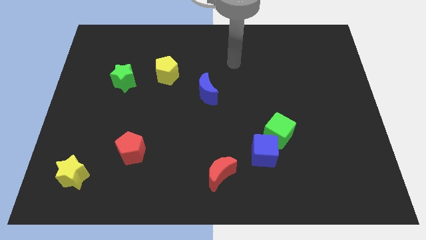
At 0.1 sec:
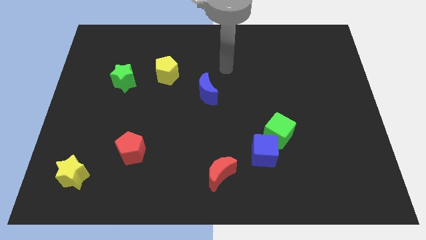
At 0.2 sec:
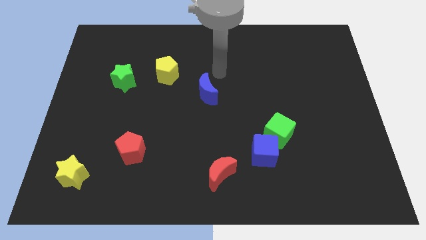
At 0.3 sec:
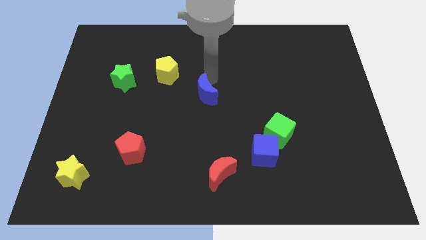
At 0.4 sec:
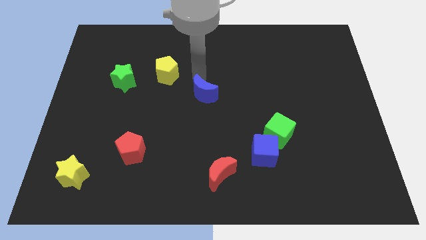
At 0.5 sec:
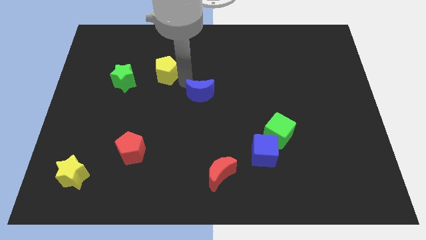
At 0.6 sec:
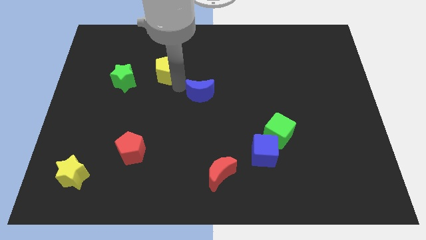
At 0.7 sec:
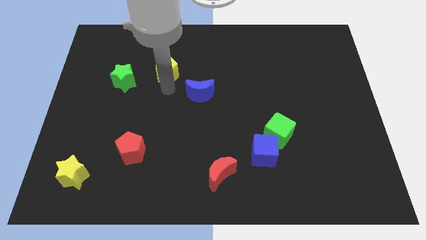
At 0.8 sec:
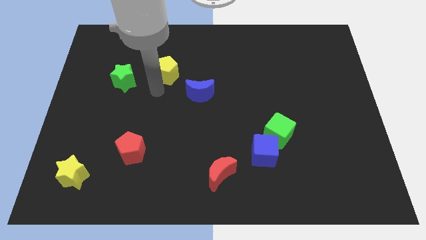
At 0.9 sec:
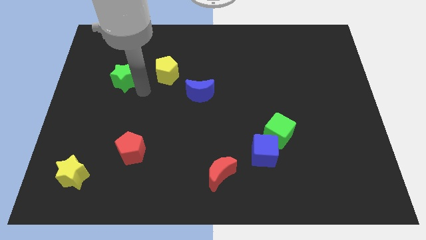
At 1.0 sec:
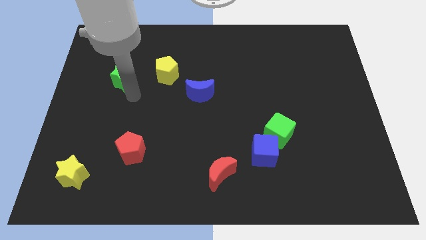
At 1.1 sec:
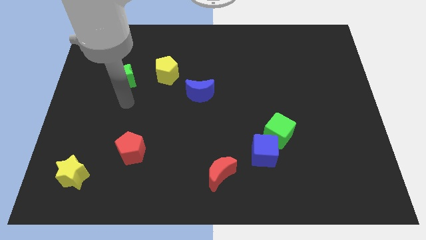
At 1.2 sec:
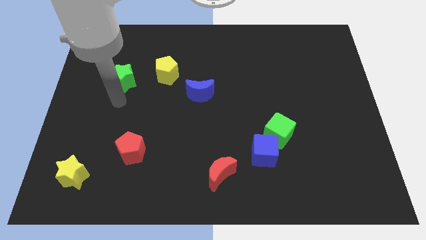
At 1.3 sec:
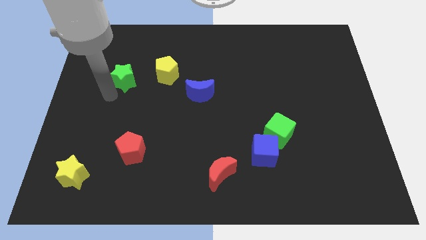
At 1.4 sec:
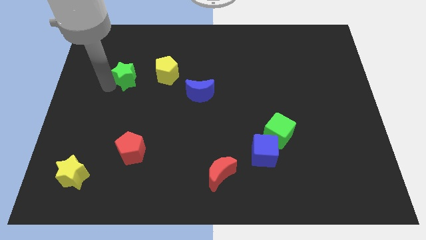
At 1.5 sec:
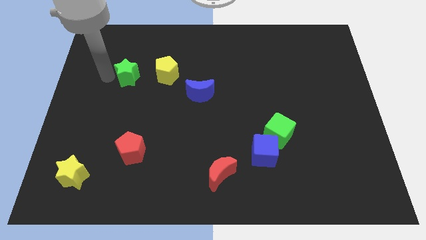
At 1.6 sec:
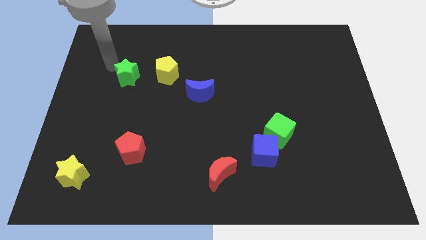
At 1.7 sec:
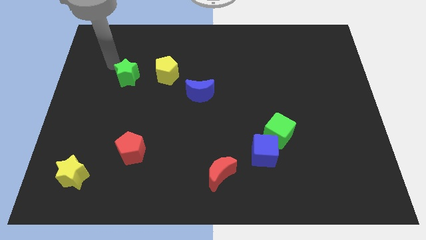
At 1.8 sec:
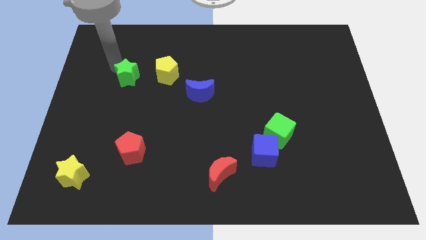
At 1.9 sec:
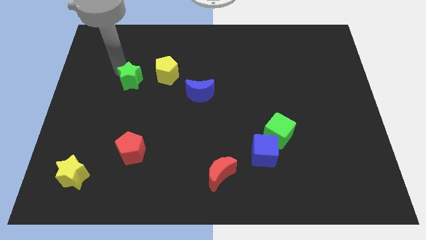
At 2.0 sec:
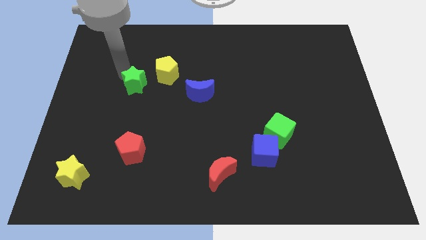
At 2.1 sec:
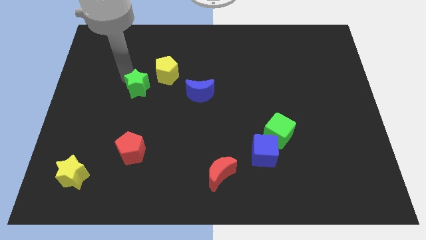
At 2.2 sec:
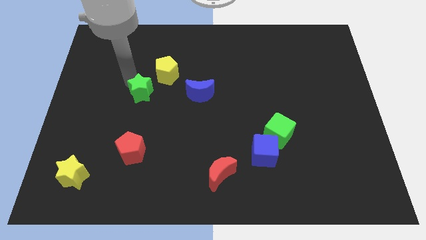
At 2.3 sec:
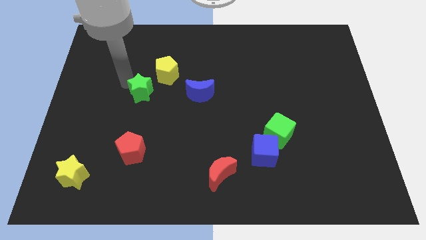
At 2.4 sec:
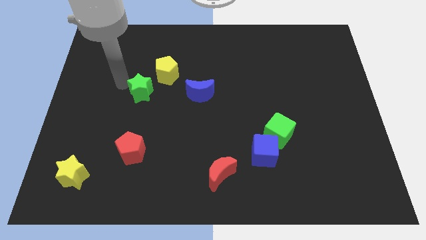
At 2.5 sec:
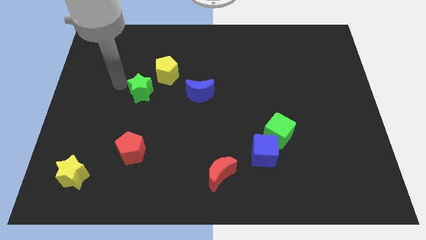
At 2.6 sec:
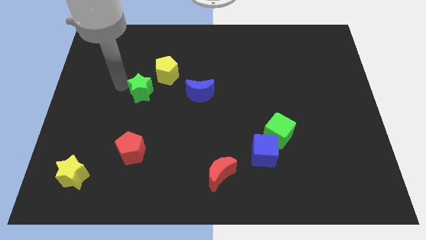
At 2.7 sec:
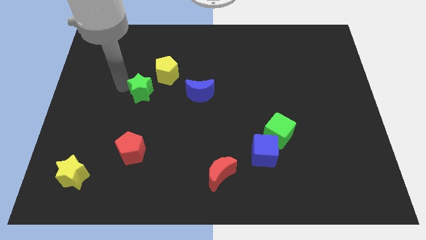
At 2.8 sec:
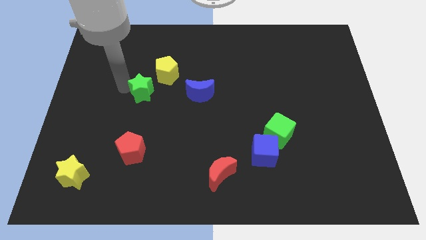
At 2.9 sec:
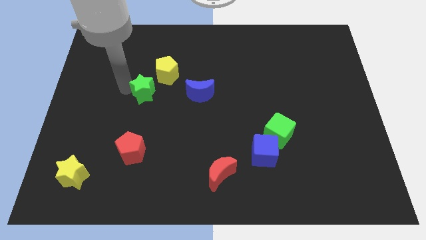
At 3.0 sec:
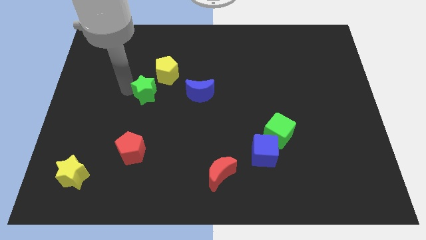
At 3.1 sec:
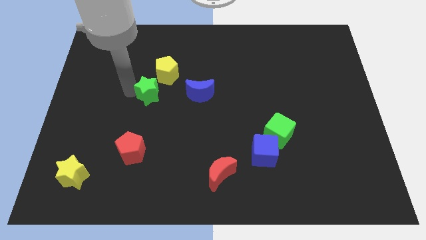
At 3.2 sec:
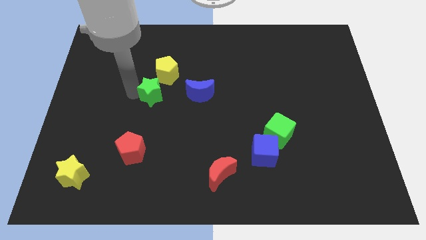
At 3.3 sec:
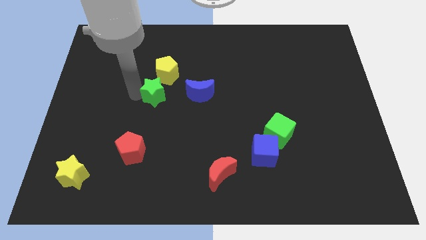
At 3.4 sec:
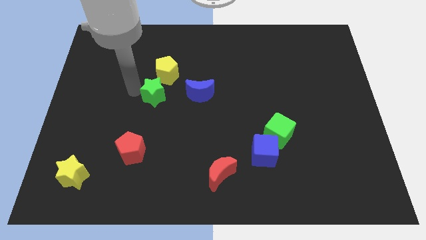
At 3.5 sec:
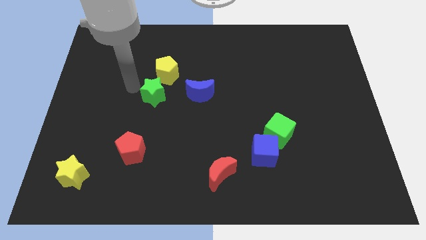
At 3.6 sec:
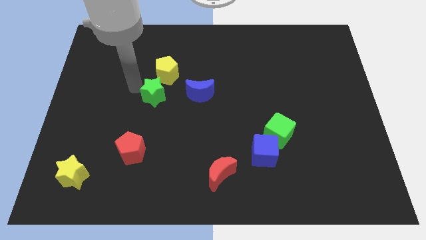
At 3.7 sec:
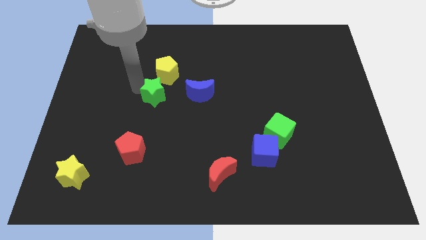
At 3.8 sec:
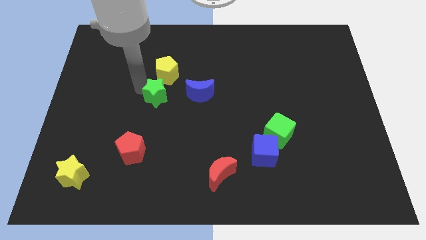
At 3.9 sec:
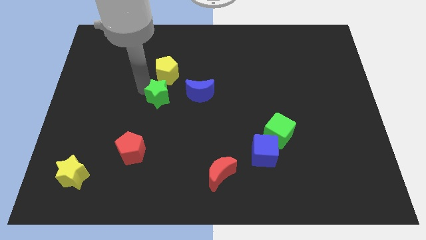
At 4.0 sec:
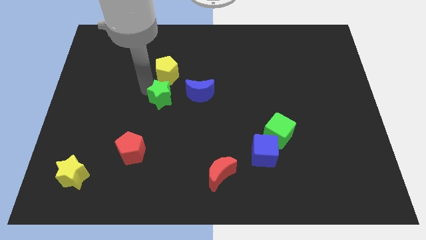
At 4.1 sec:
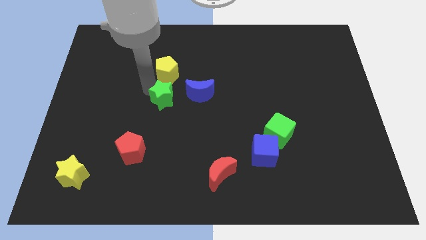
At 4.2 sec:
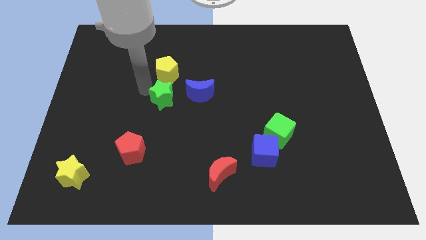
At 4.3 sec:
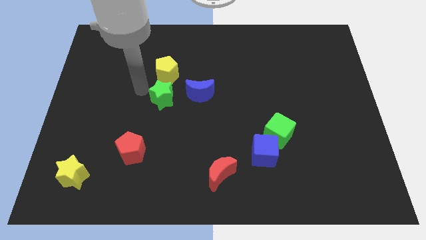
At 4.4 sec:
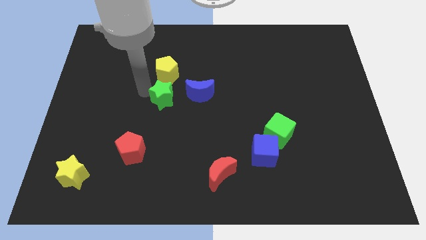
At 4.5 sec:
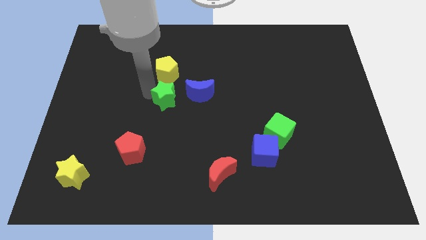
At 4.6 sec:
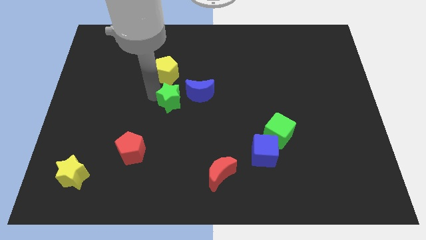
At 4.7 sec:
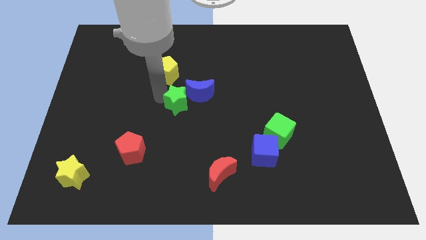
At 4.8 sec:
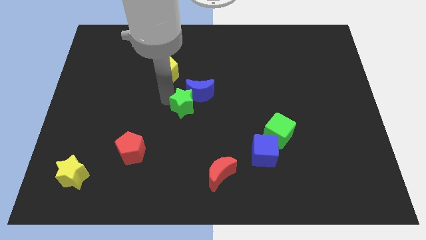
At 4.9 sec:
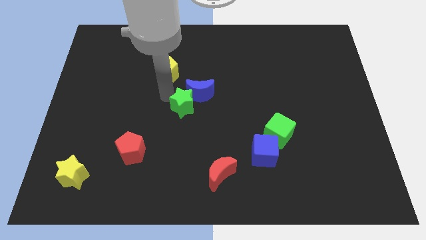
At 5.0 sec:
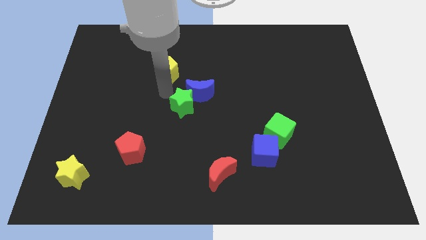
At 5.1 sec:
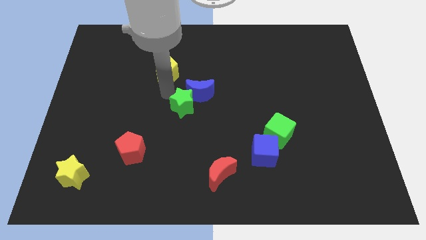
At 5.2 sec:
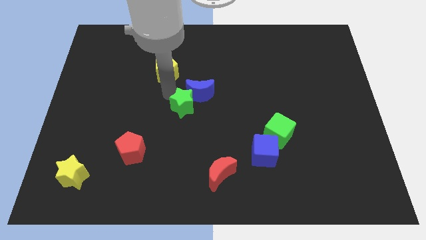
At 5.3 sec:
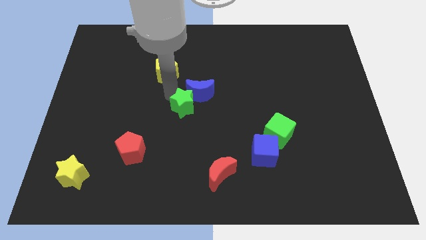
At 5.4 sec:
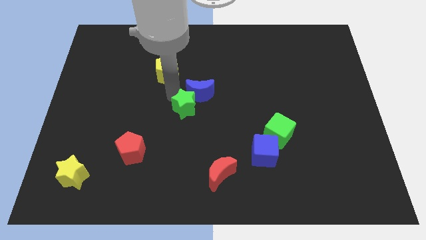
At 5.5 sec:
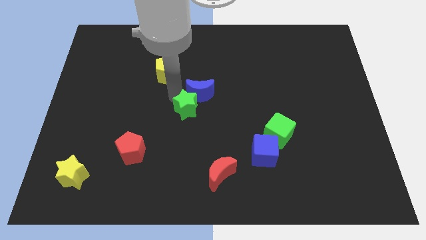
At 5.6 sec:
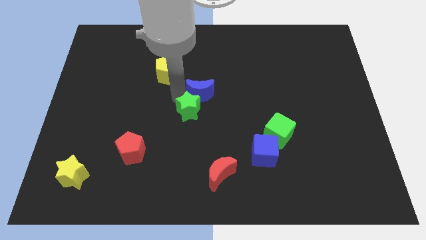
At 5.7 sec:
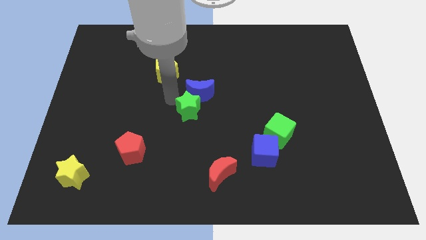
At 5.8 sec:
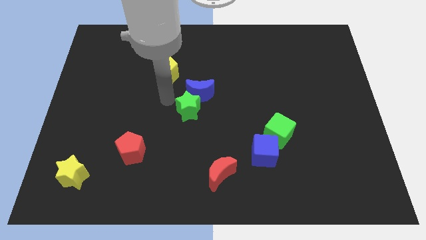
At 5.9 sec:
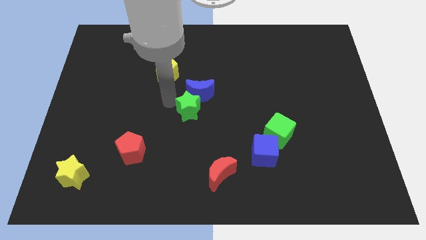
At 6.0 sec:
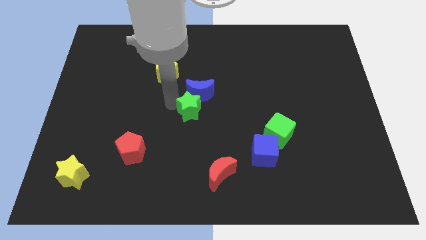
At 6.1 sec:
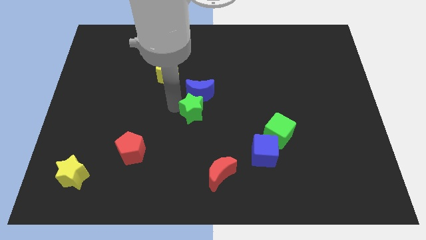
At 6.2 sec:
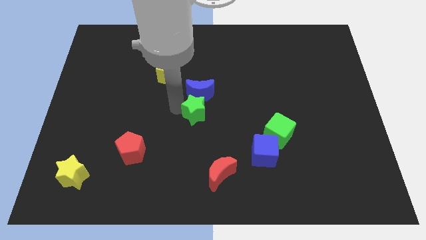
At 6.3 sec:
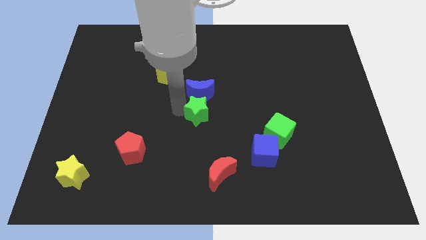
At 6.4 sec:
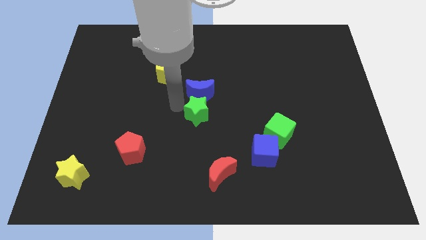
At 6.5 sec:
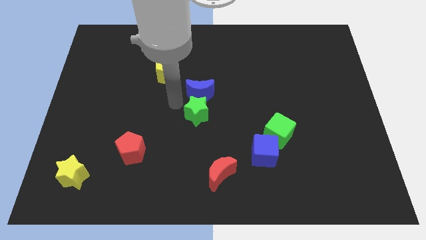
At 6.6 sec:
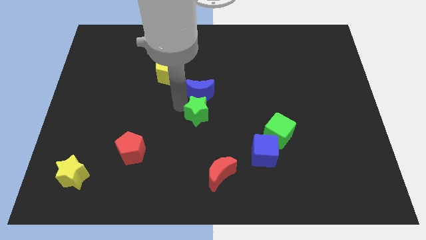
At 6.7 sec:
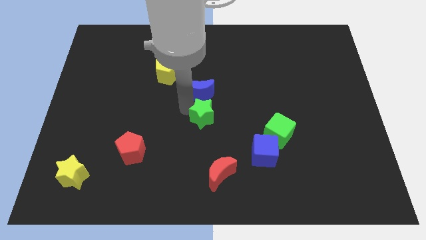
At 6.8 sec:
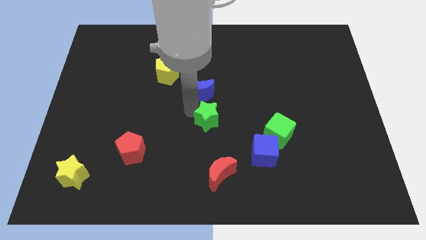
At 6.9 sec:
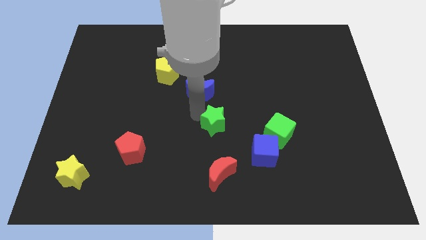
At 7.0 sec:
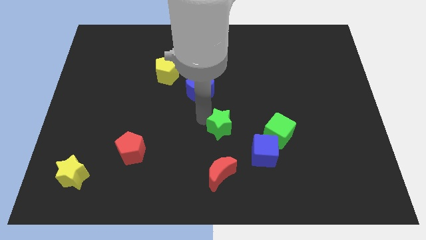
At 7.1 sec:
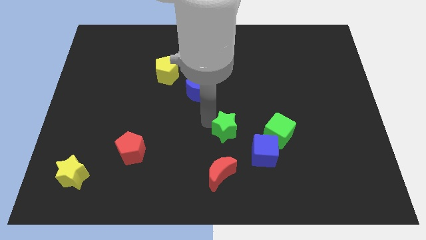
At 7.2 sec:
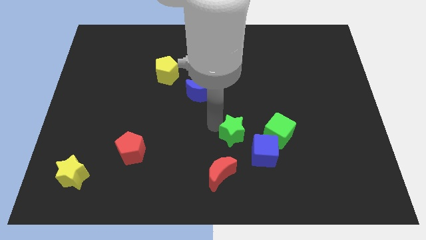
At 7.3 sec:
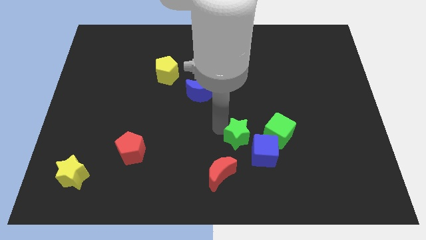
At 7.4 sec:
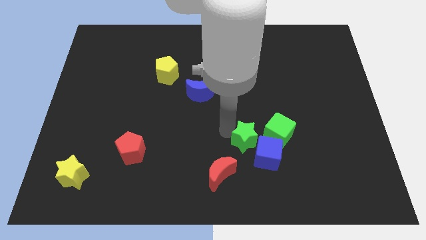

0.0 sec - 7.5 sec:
put the green star next to the blue cube
